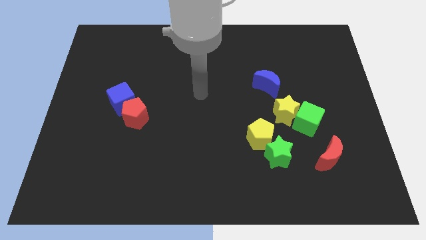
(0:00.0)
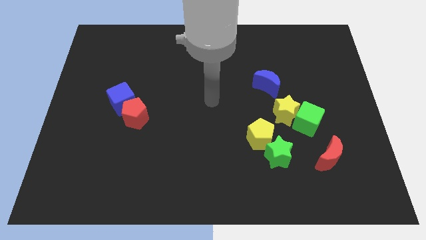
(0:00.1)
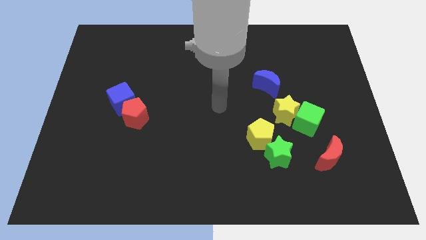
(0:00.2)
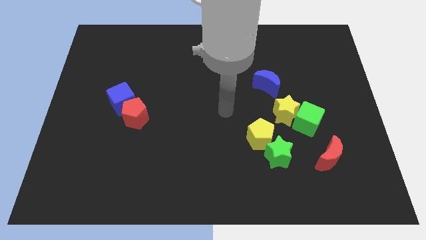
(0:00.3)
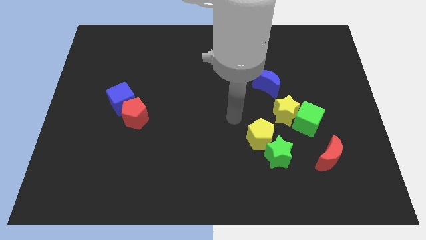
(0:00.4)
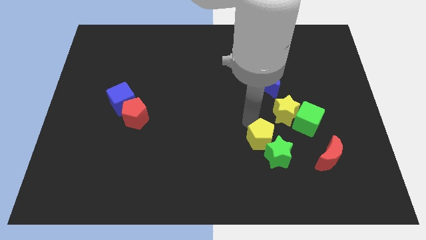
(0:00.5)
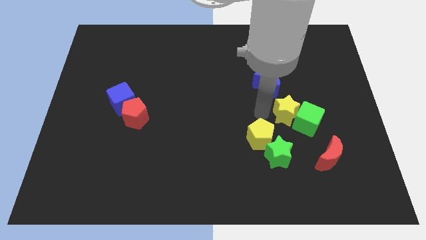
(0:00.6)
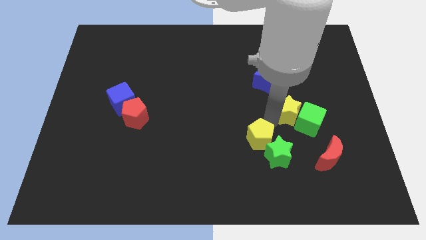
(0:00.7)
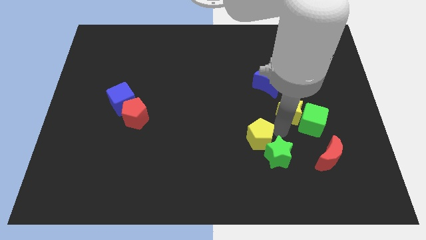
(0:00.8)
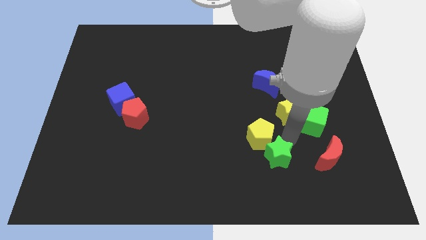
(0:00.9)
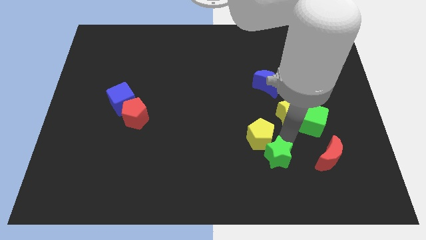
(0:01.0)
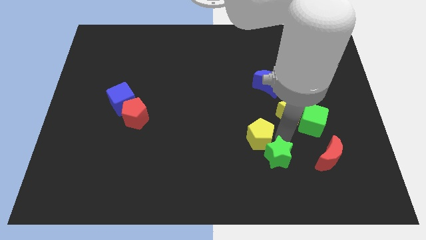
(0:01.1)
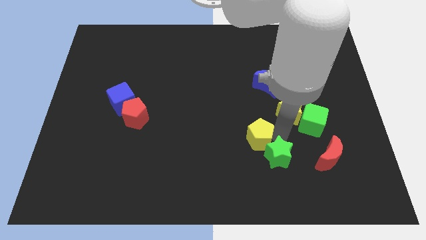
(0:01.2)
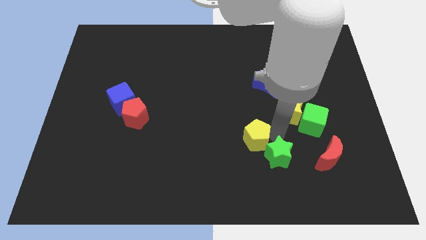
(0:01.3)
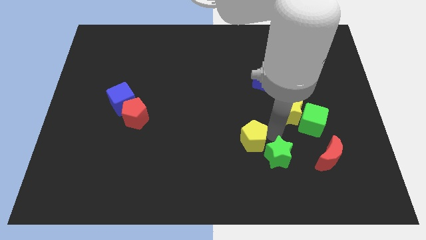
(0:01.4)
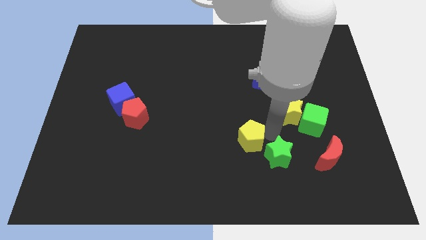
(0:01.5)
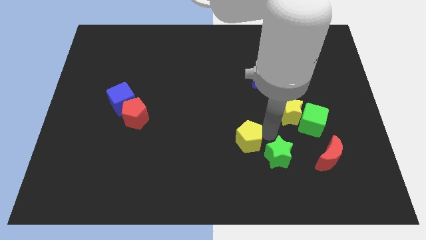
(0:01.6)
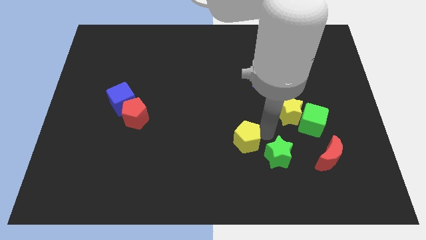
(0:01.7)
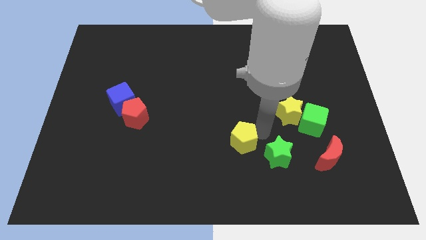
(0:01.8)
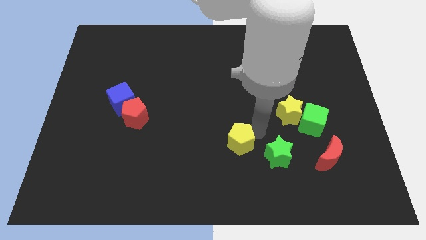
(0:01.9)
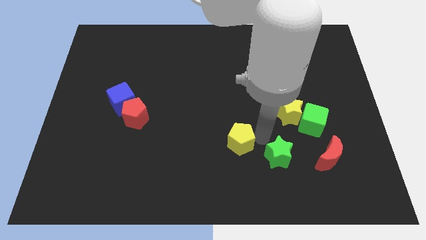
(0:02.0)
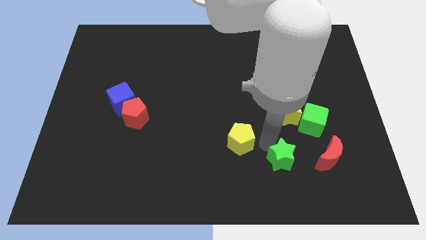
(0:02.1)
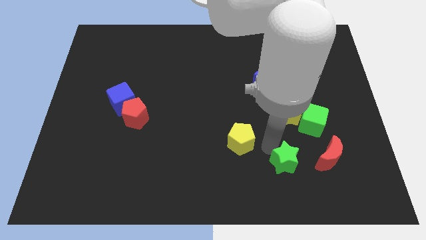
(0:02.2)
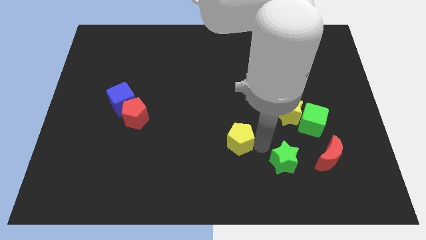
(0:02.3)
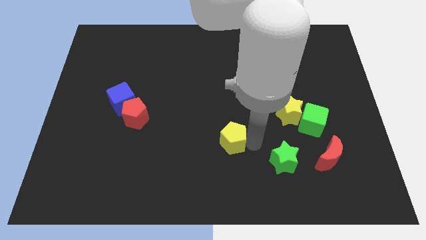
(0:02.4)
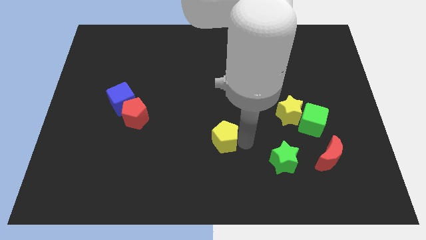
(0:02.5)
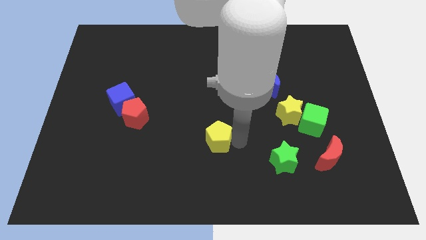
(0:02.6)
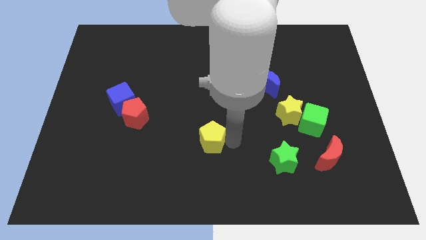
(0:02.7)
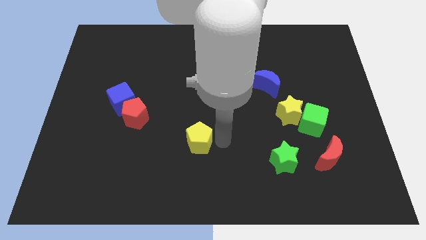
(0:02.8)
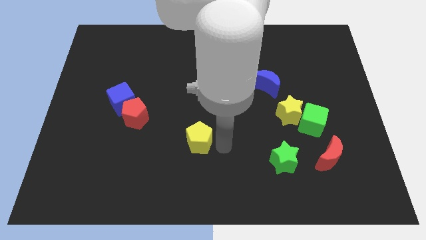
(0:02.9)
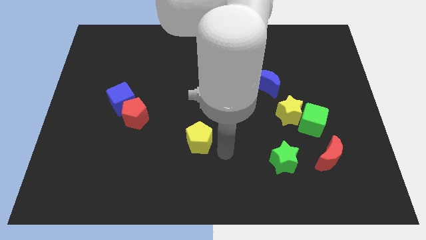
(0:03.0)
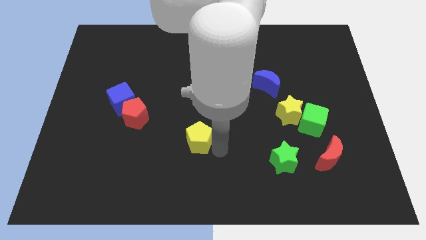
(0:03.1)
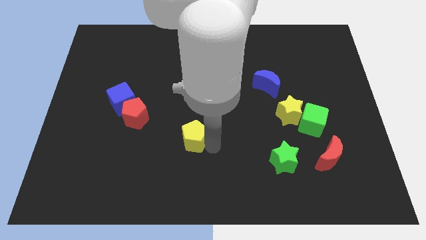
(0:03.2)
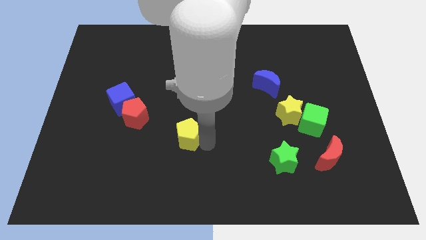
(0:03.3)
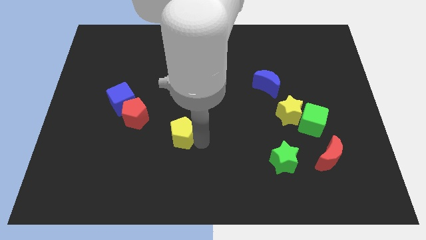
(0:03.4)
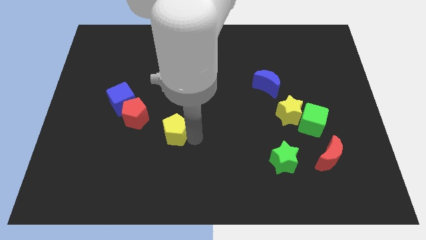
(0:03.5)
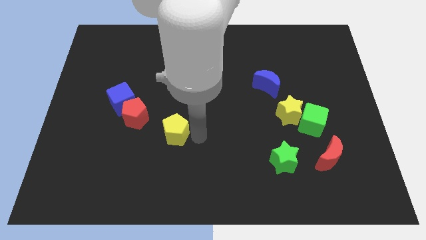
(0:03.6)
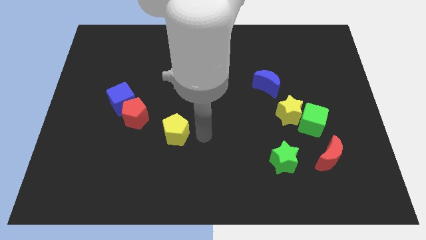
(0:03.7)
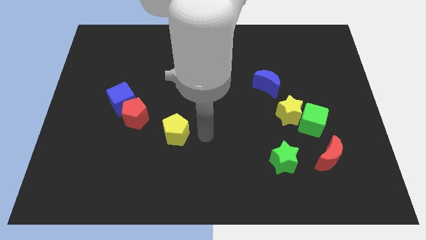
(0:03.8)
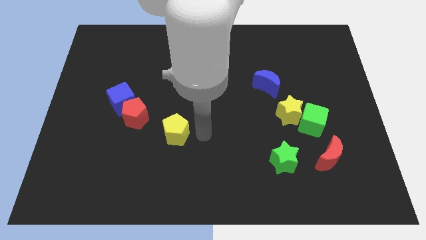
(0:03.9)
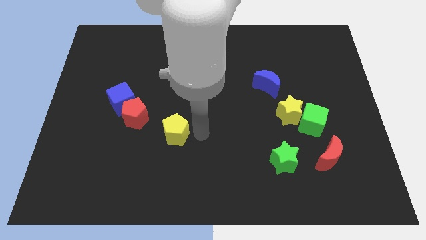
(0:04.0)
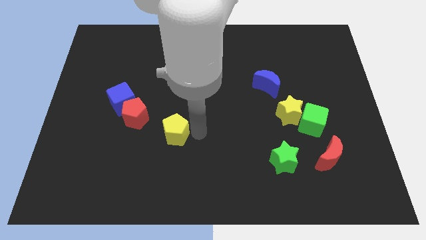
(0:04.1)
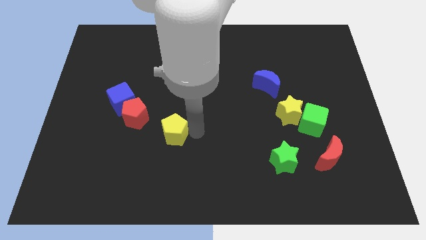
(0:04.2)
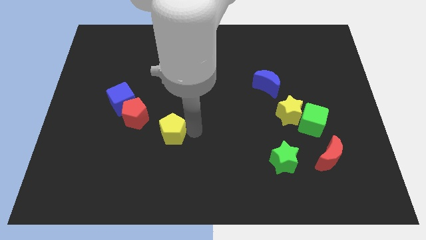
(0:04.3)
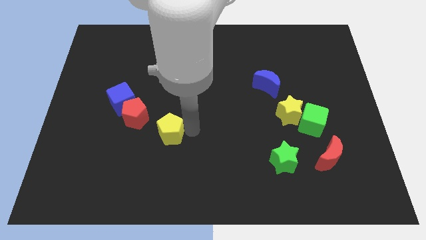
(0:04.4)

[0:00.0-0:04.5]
move the yellow pentagon left

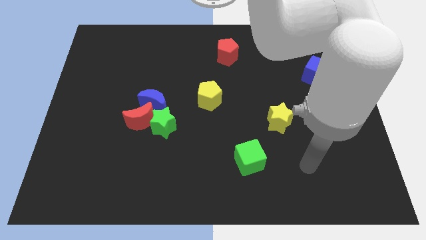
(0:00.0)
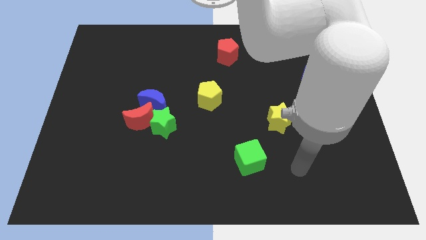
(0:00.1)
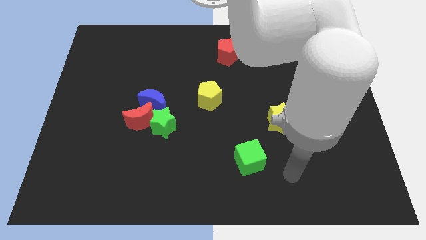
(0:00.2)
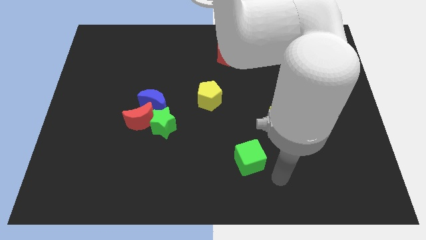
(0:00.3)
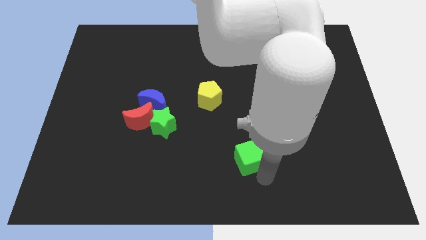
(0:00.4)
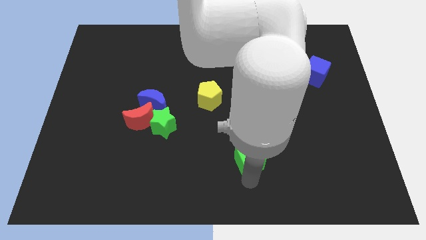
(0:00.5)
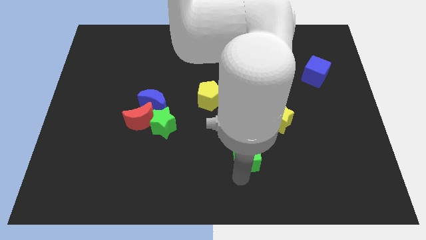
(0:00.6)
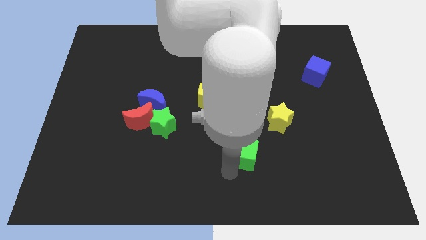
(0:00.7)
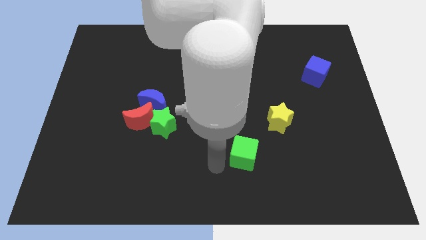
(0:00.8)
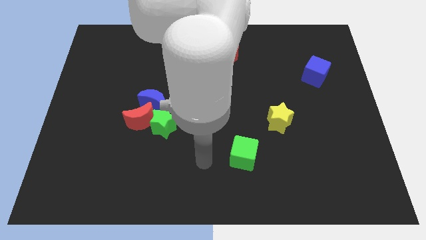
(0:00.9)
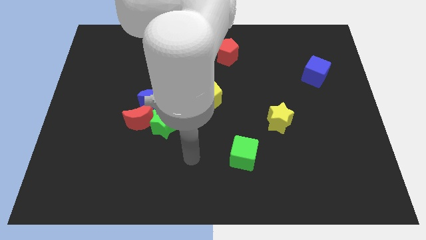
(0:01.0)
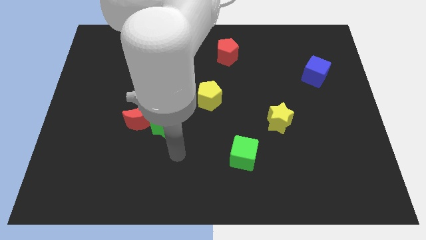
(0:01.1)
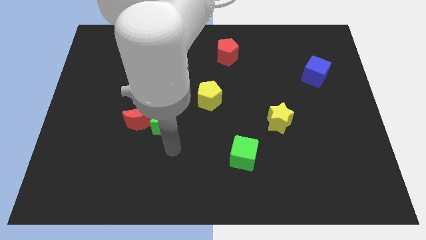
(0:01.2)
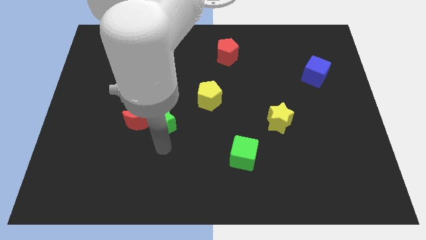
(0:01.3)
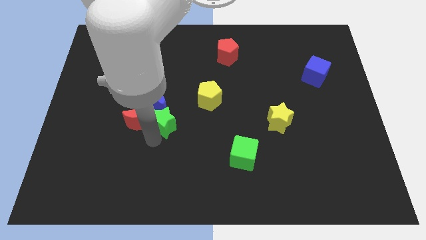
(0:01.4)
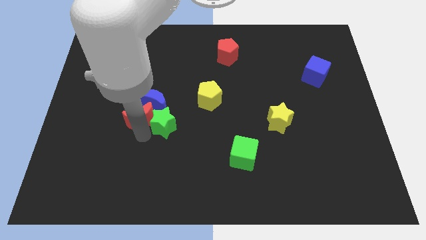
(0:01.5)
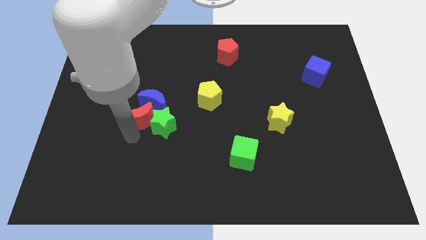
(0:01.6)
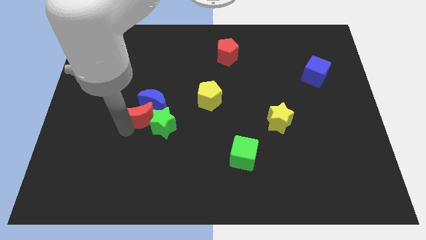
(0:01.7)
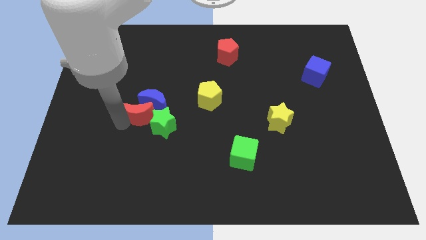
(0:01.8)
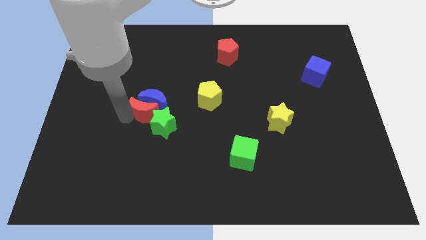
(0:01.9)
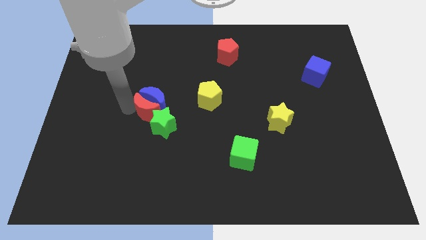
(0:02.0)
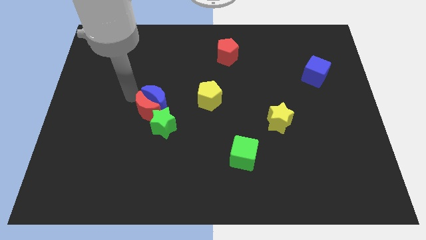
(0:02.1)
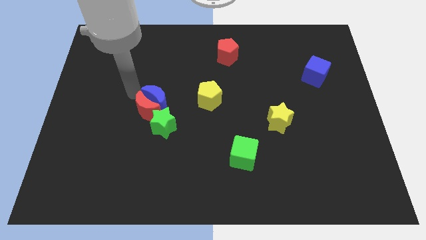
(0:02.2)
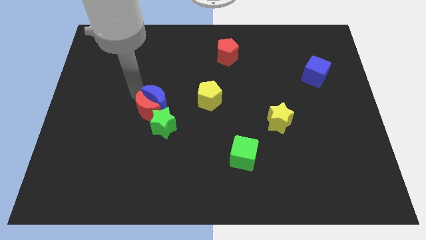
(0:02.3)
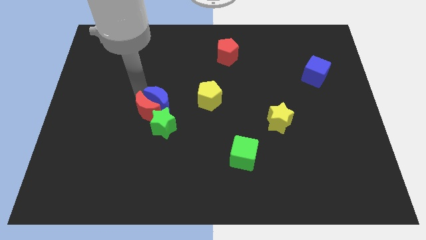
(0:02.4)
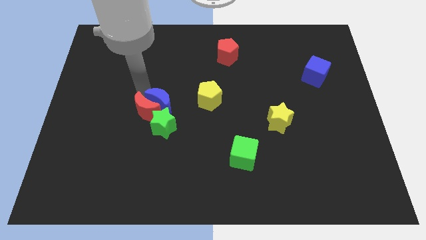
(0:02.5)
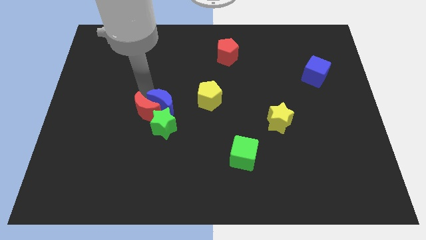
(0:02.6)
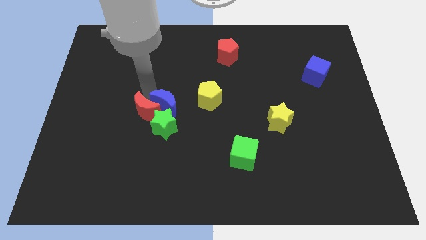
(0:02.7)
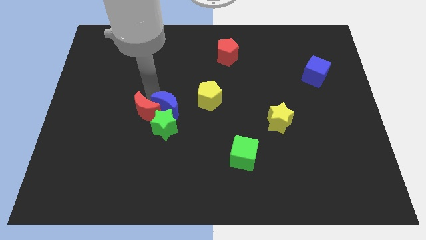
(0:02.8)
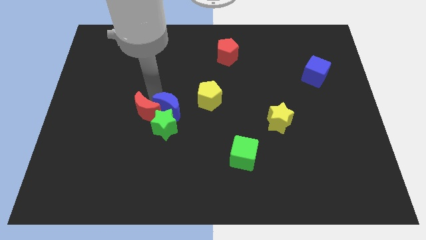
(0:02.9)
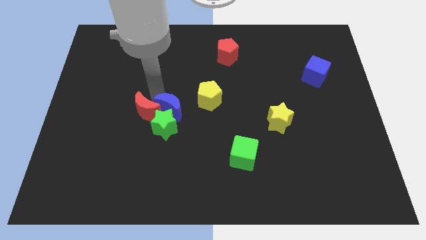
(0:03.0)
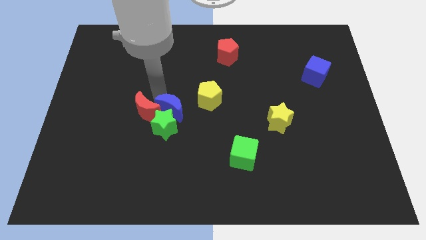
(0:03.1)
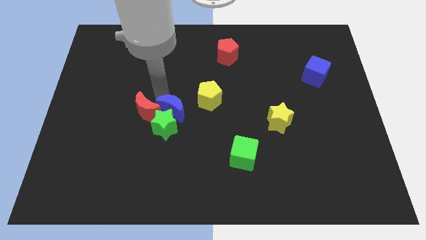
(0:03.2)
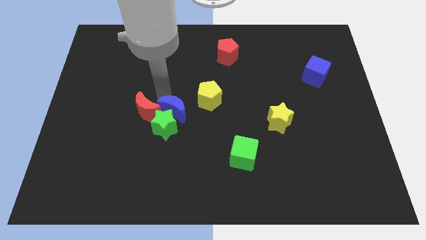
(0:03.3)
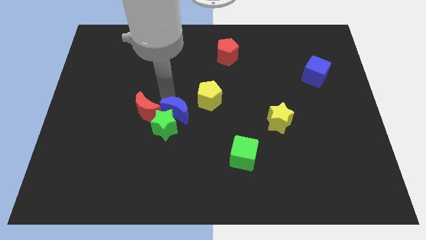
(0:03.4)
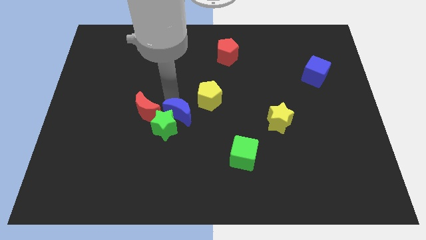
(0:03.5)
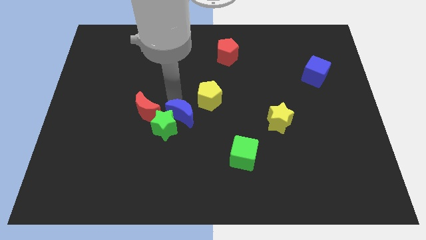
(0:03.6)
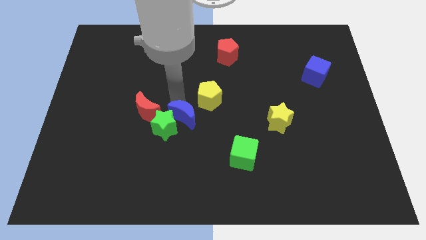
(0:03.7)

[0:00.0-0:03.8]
push the blue moon a bit to the right
